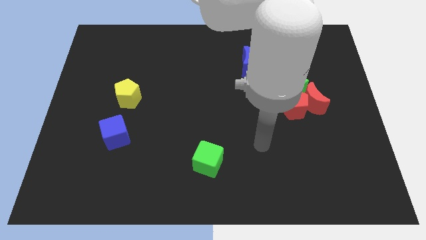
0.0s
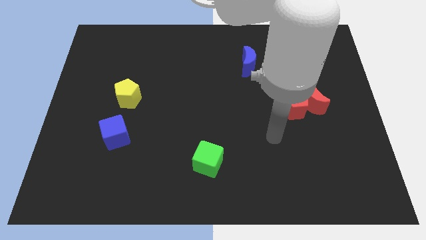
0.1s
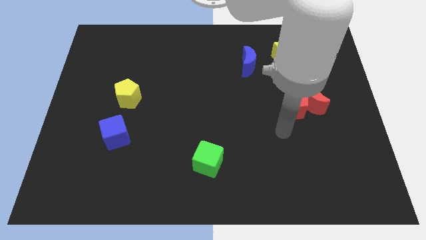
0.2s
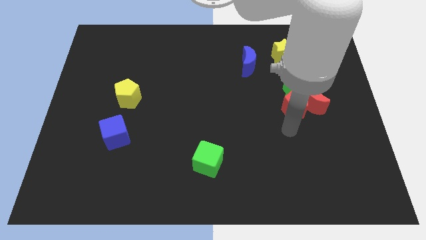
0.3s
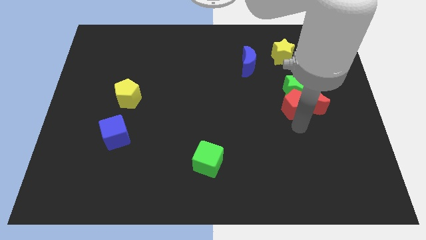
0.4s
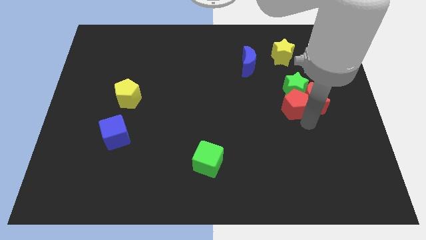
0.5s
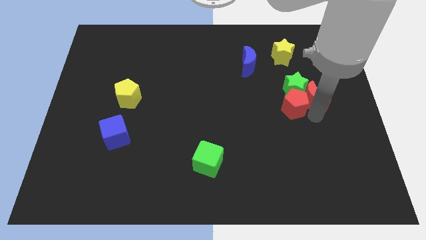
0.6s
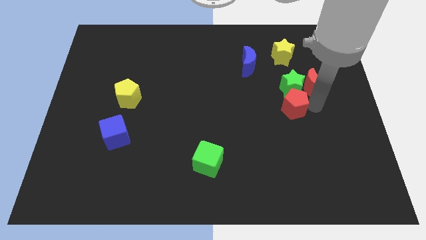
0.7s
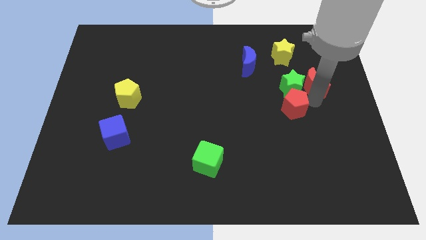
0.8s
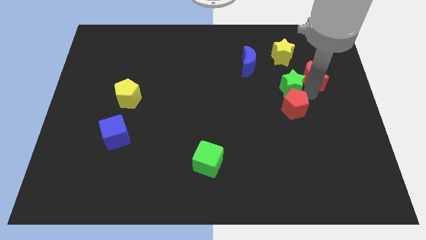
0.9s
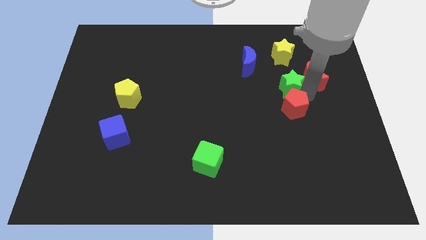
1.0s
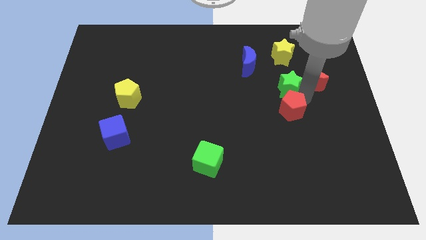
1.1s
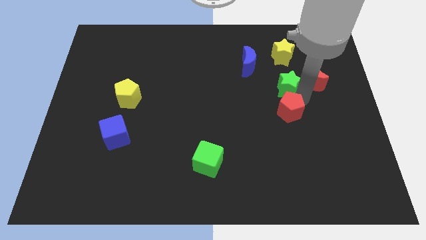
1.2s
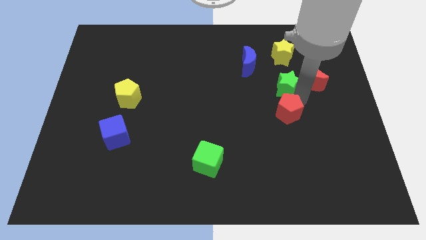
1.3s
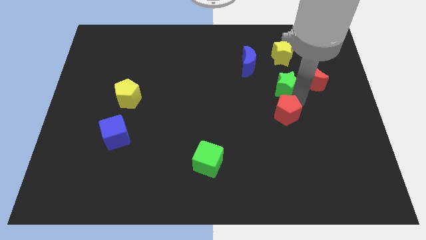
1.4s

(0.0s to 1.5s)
pull the red pentagon apart from the red moon and green star

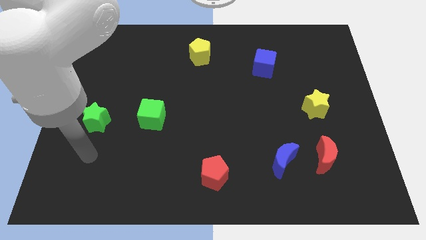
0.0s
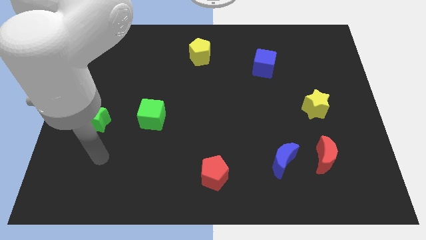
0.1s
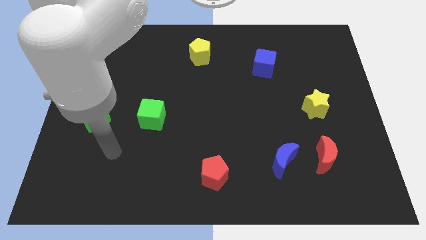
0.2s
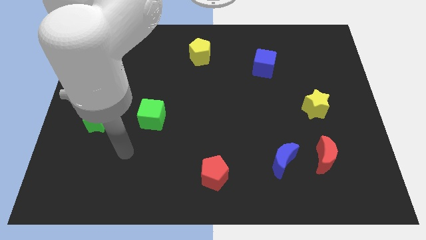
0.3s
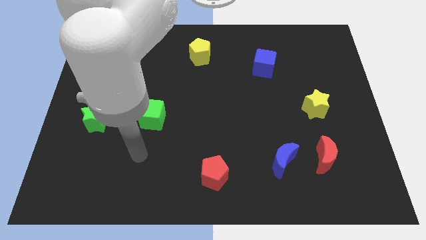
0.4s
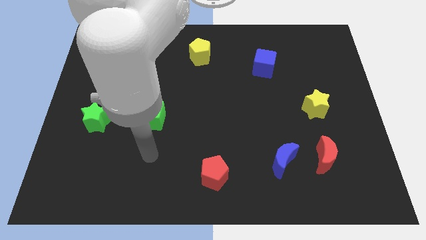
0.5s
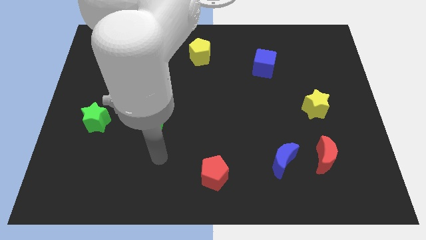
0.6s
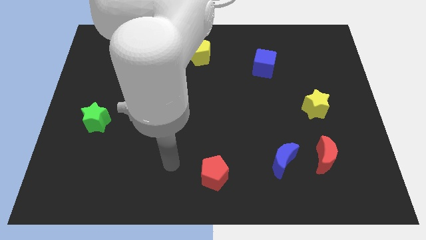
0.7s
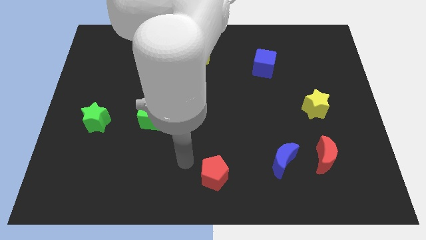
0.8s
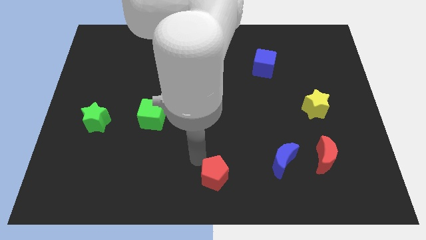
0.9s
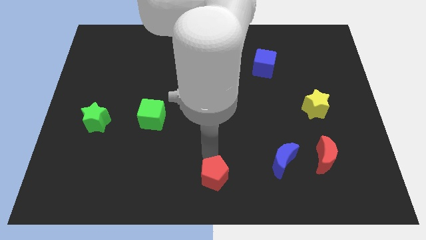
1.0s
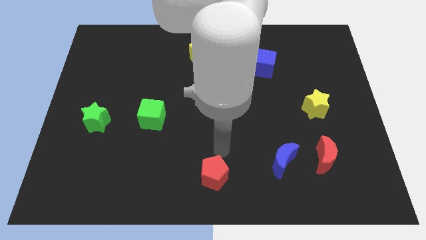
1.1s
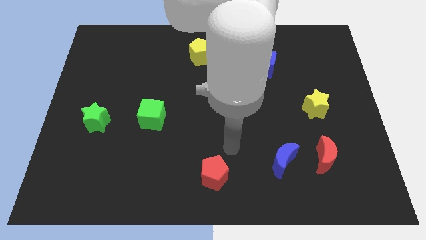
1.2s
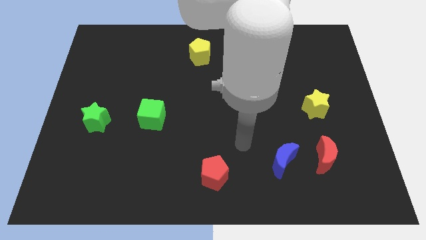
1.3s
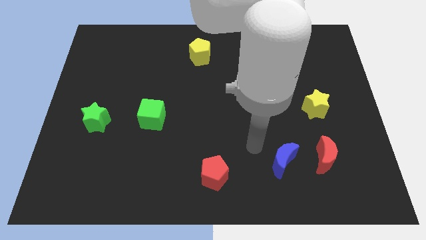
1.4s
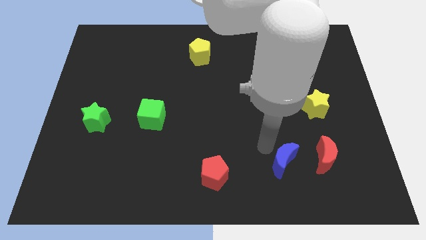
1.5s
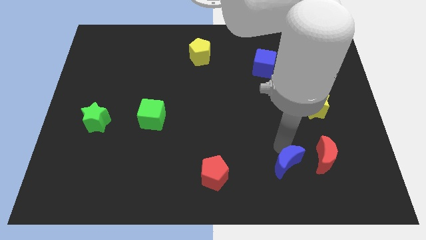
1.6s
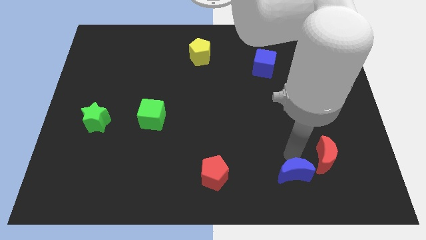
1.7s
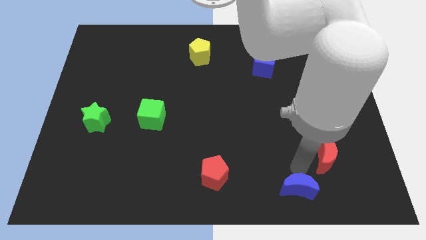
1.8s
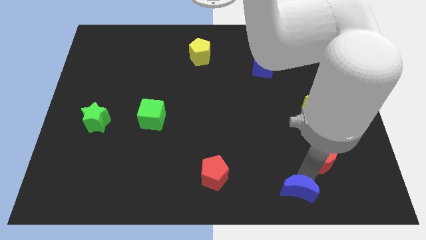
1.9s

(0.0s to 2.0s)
pull the red moon apart from the blue moon

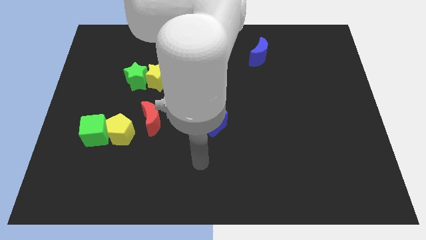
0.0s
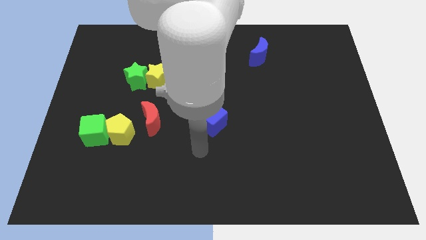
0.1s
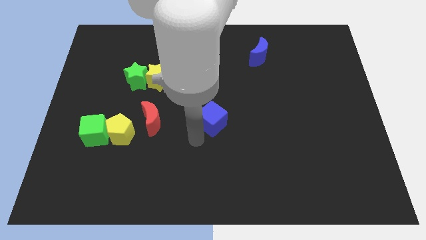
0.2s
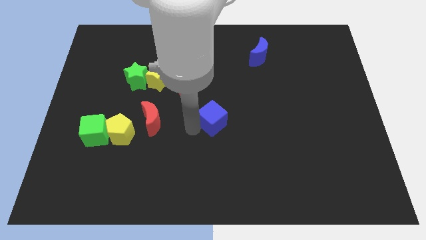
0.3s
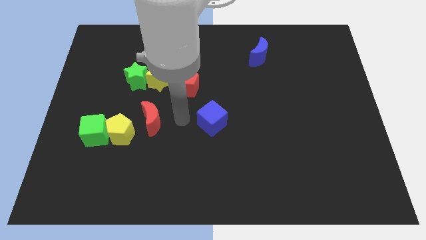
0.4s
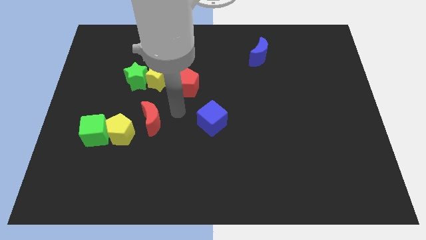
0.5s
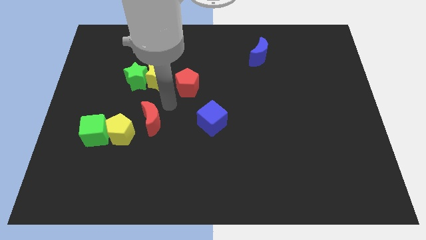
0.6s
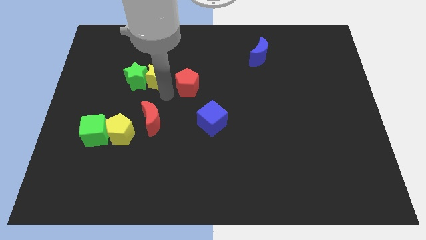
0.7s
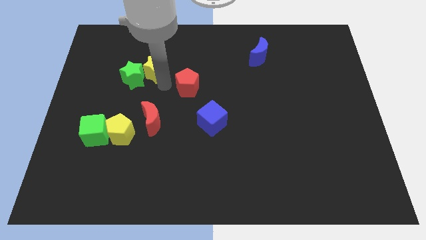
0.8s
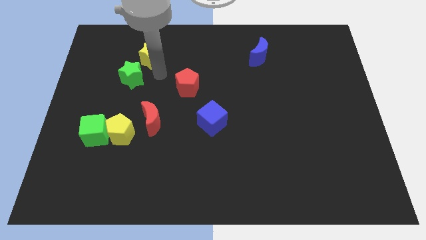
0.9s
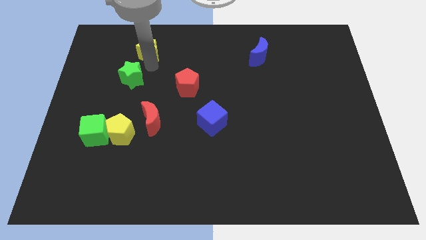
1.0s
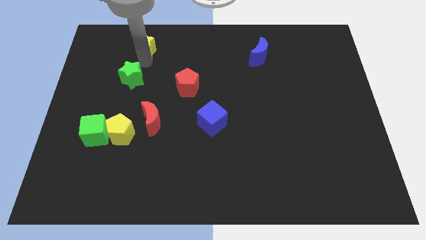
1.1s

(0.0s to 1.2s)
move the green star away from the yellow star

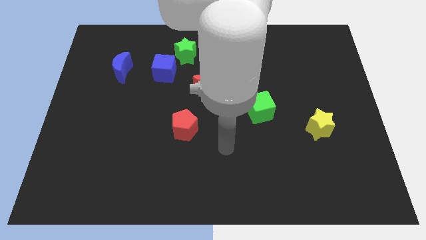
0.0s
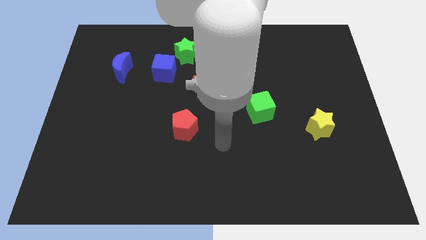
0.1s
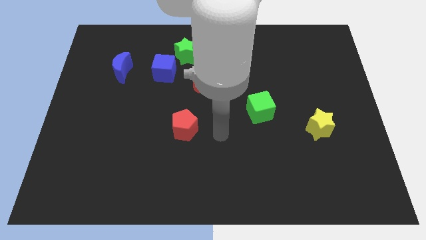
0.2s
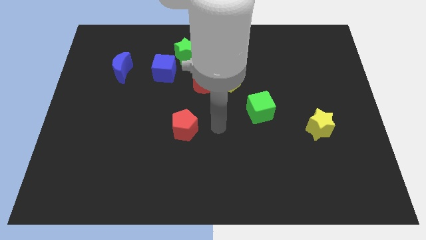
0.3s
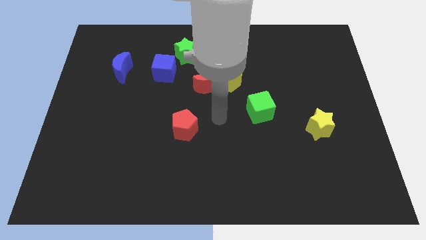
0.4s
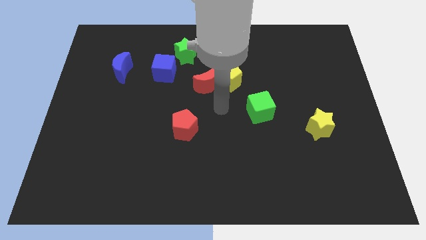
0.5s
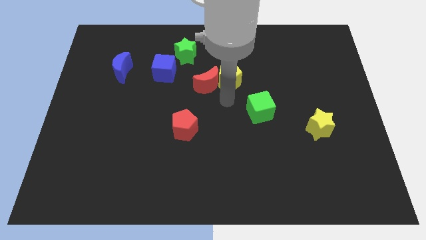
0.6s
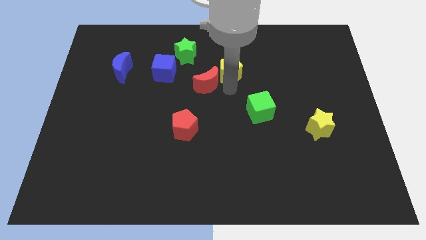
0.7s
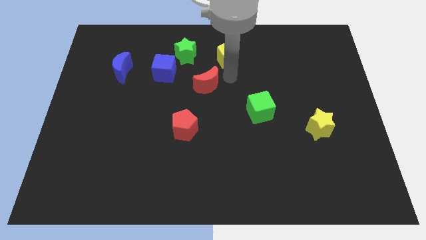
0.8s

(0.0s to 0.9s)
pull the red moon apart from the yellow pentagon

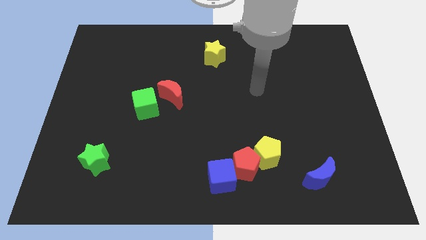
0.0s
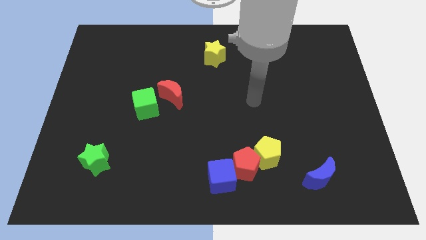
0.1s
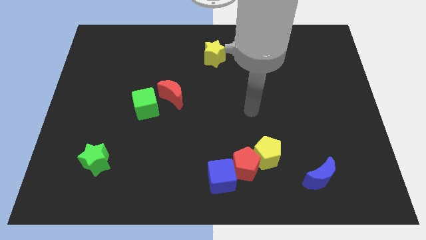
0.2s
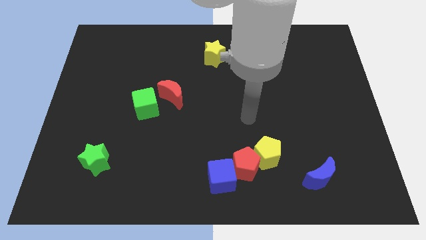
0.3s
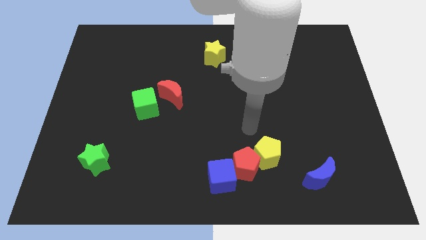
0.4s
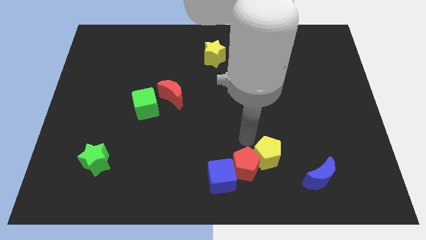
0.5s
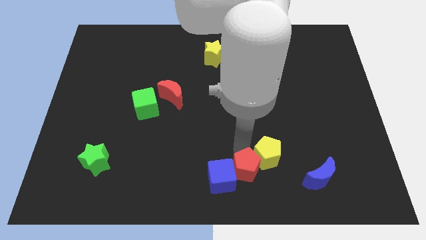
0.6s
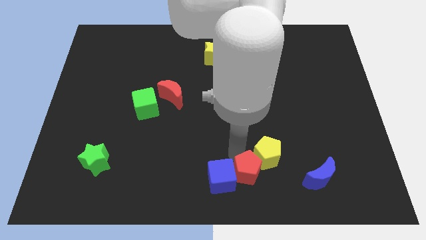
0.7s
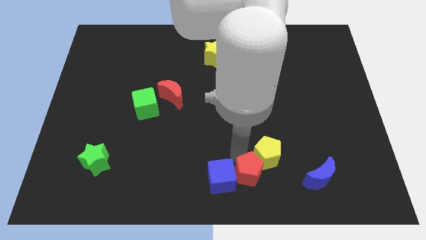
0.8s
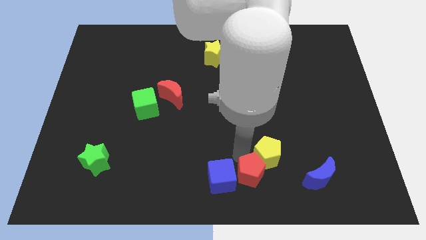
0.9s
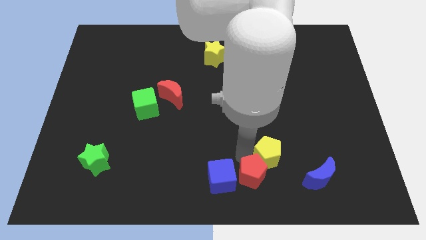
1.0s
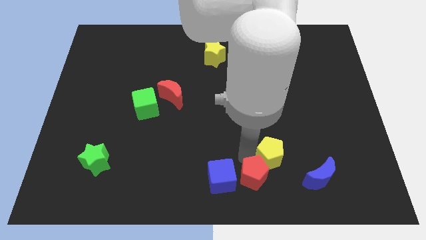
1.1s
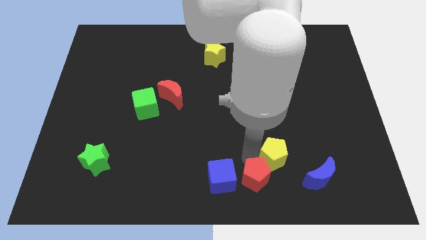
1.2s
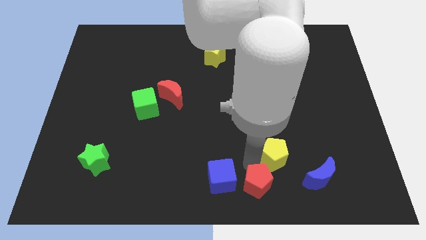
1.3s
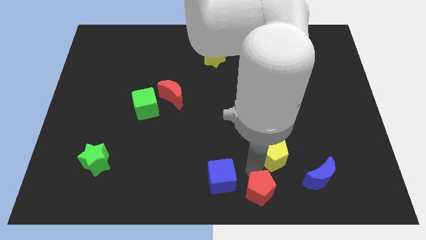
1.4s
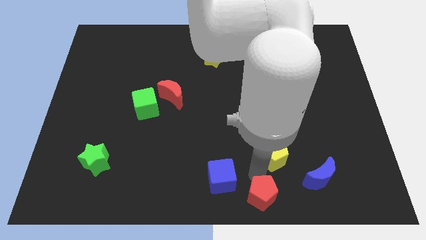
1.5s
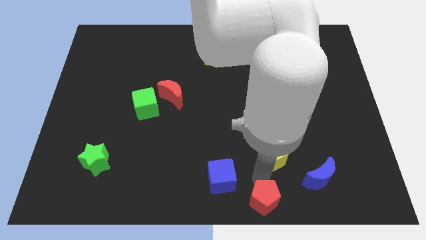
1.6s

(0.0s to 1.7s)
separate the yellow pentagon from the red pentagon

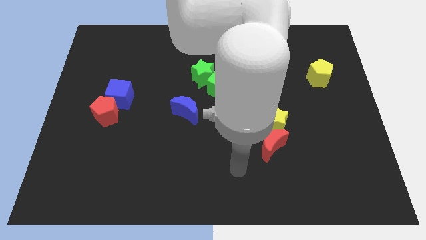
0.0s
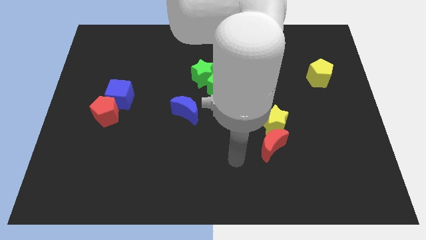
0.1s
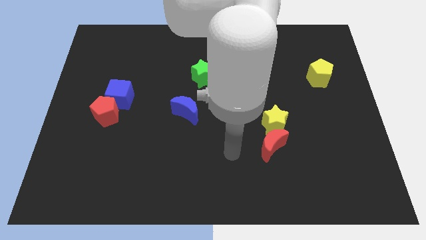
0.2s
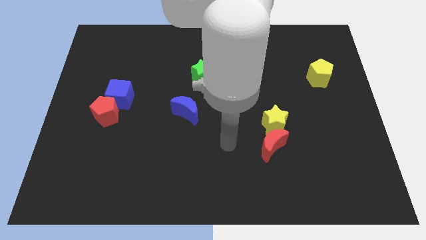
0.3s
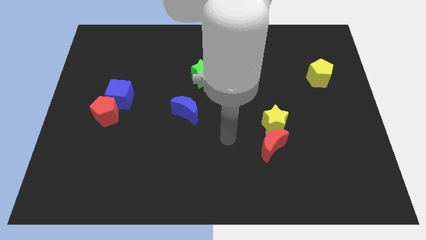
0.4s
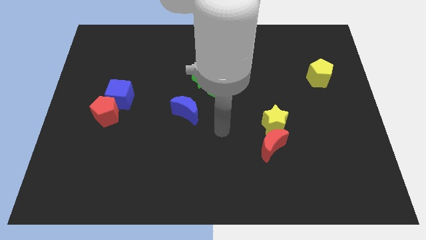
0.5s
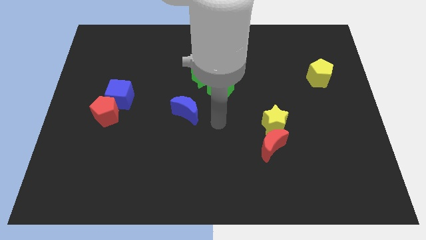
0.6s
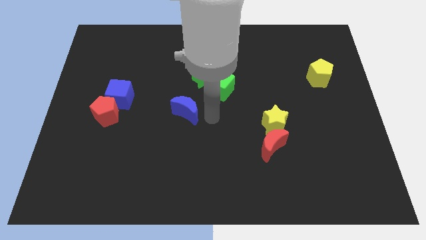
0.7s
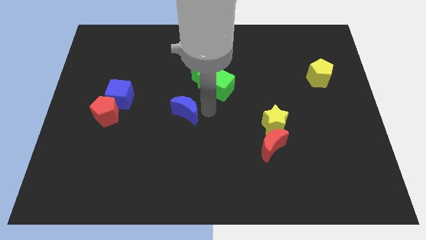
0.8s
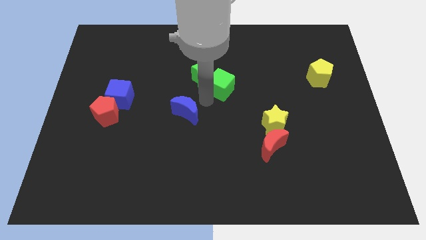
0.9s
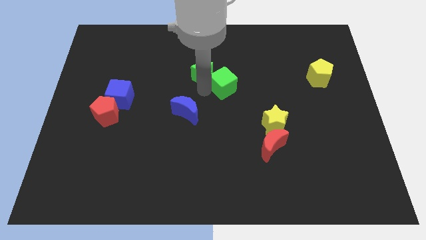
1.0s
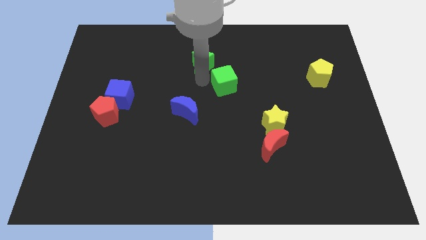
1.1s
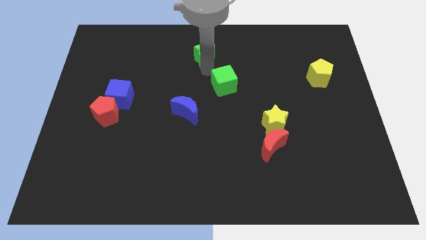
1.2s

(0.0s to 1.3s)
separate the green cube from the green star

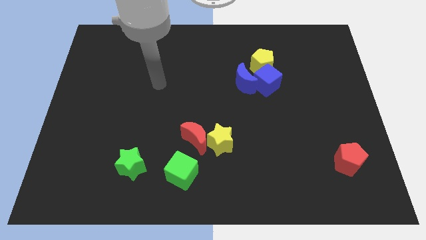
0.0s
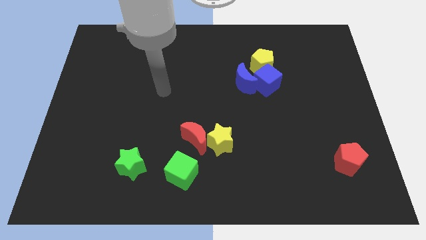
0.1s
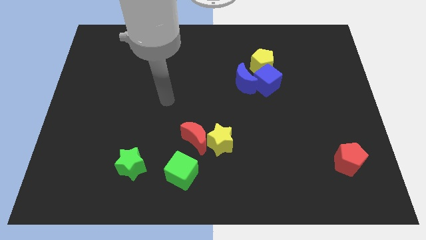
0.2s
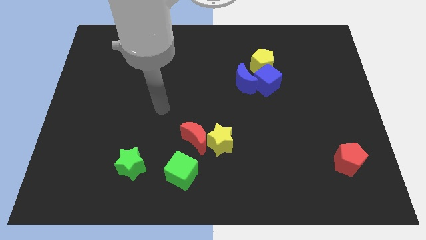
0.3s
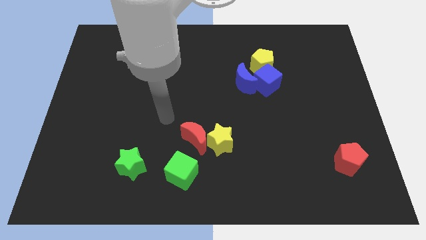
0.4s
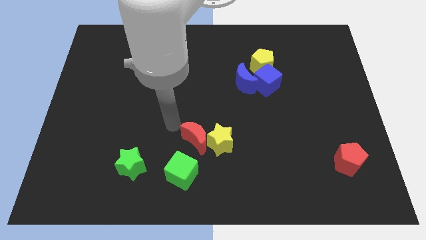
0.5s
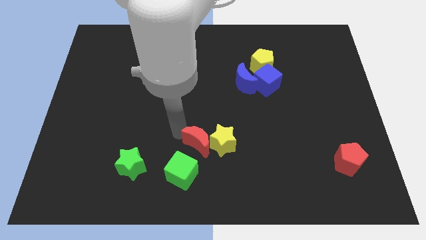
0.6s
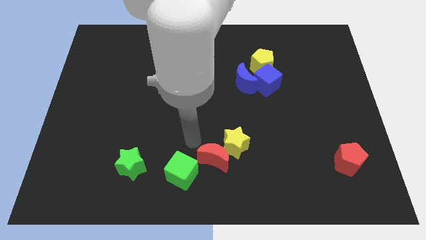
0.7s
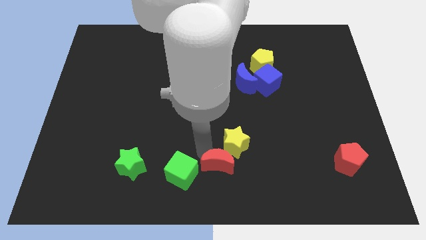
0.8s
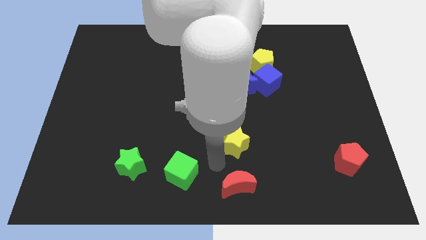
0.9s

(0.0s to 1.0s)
pull the yellow star apart from the red moon
